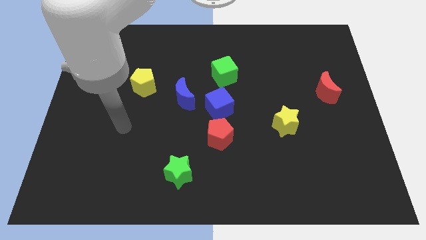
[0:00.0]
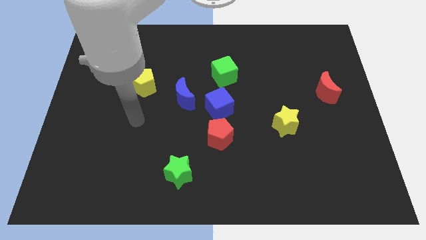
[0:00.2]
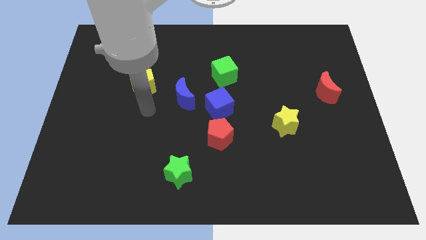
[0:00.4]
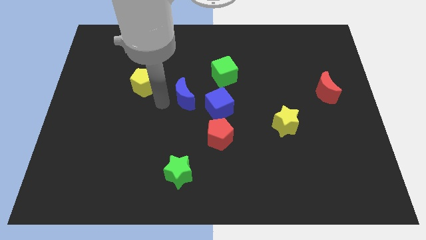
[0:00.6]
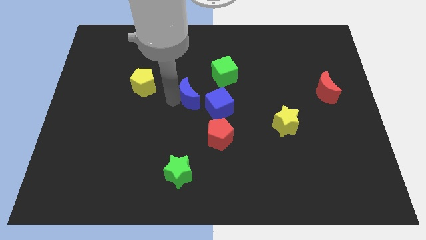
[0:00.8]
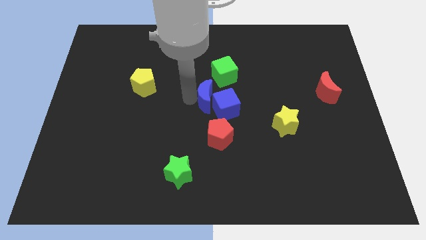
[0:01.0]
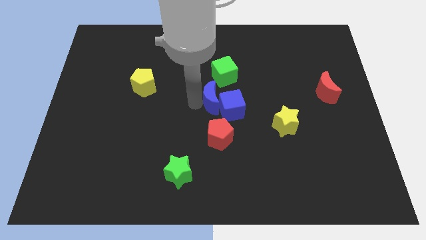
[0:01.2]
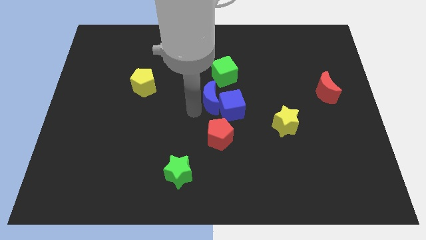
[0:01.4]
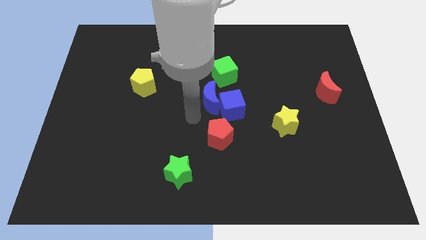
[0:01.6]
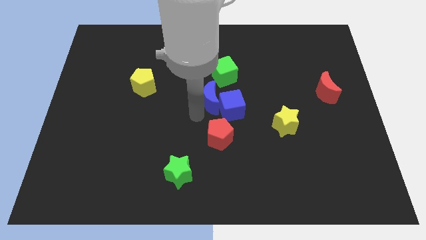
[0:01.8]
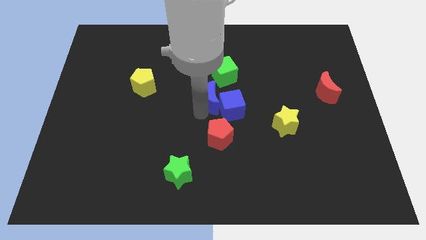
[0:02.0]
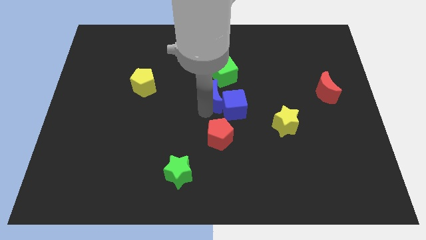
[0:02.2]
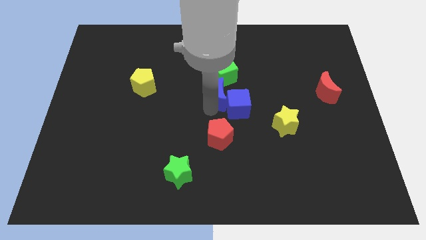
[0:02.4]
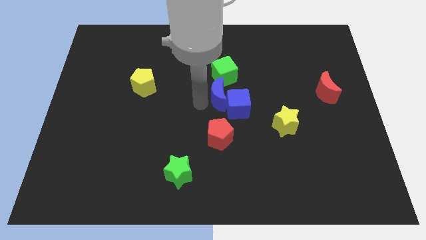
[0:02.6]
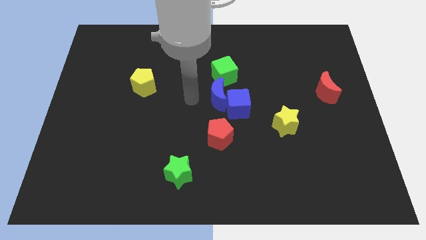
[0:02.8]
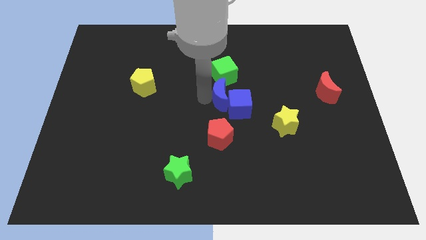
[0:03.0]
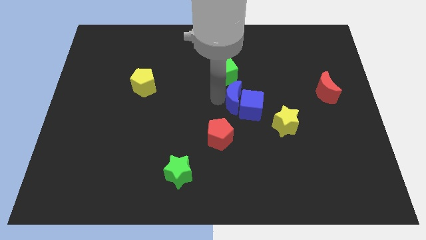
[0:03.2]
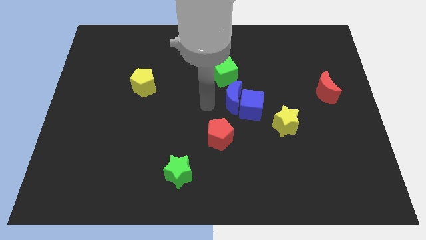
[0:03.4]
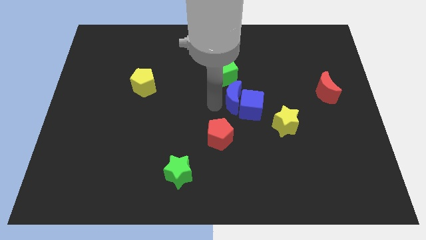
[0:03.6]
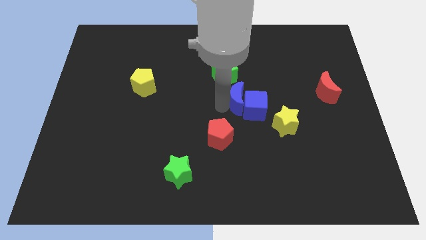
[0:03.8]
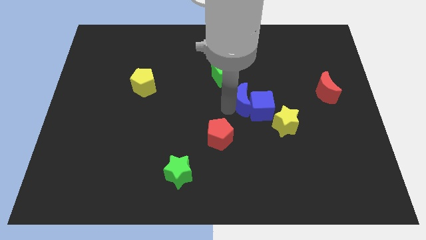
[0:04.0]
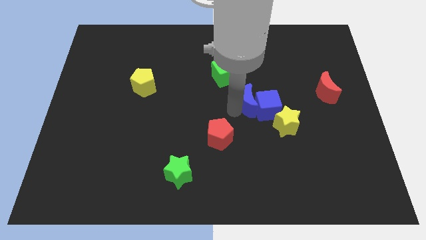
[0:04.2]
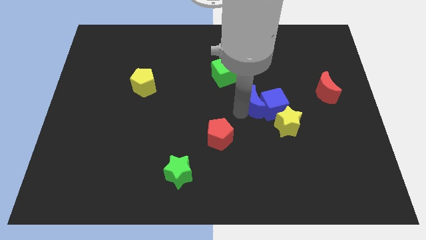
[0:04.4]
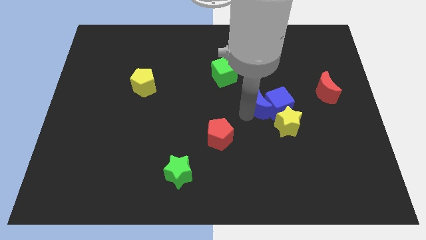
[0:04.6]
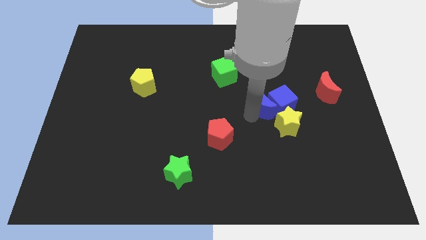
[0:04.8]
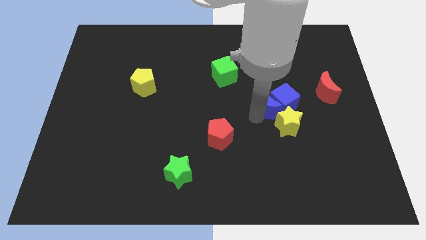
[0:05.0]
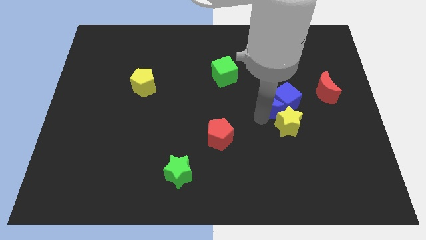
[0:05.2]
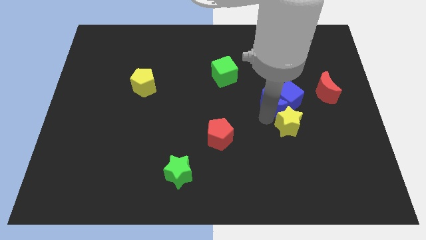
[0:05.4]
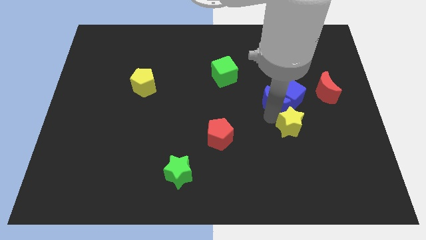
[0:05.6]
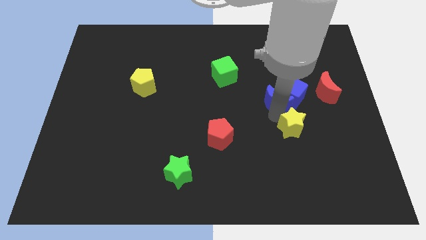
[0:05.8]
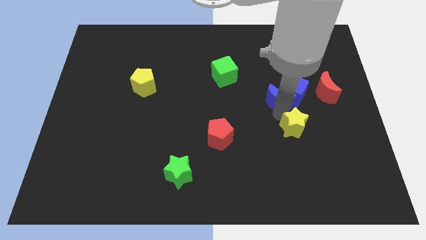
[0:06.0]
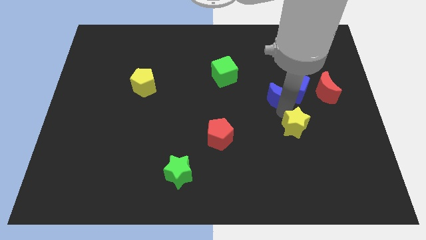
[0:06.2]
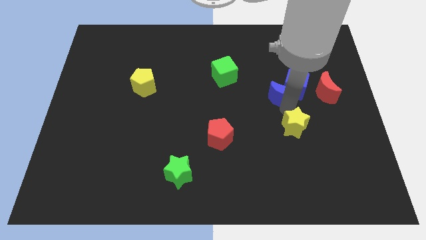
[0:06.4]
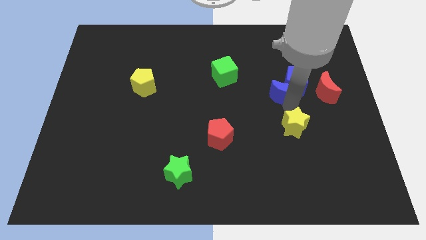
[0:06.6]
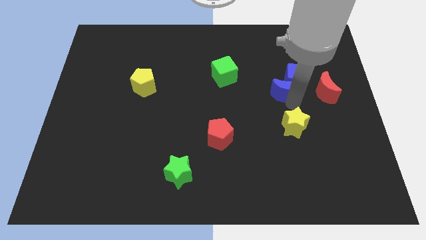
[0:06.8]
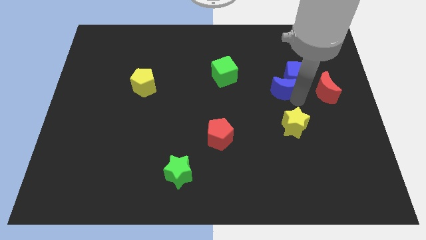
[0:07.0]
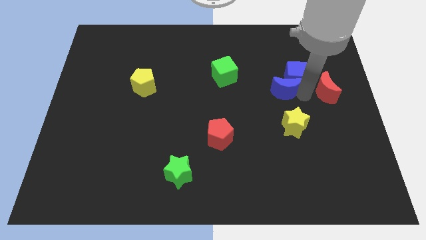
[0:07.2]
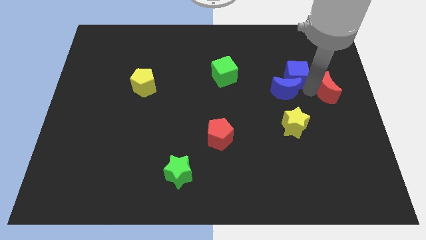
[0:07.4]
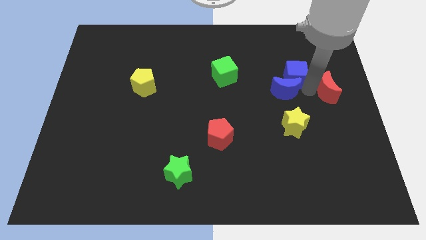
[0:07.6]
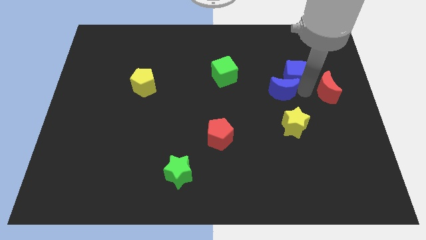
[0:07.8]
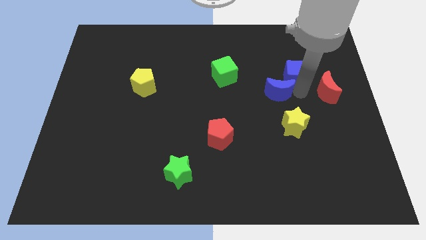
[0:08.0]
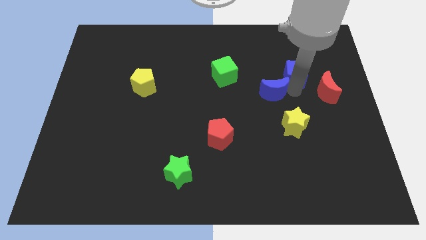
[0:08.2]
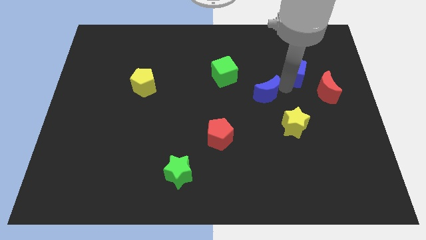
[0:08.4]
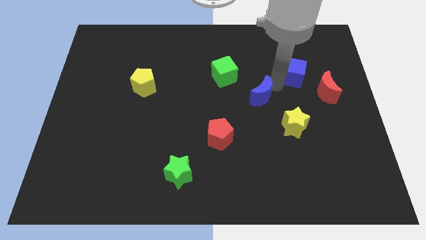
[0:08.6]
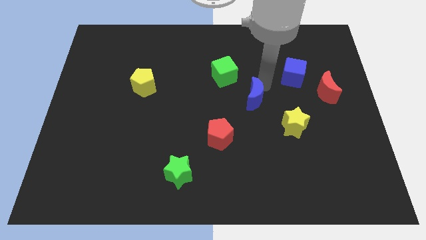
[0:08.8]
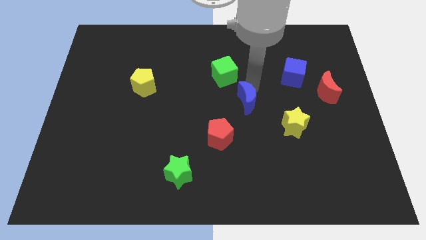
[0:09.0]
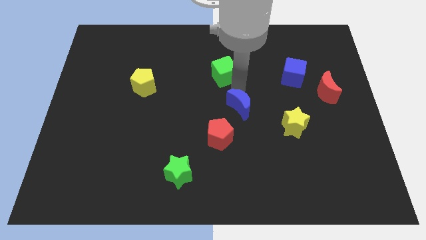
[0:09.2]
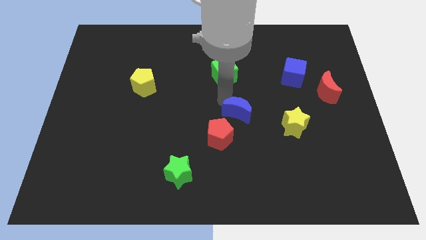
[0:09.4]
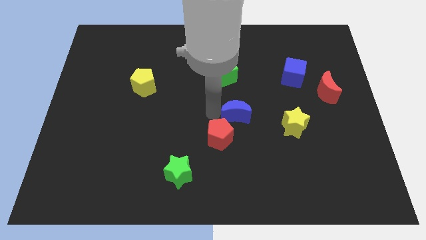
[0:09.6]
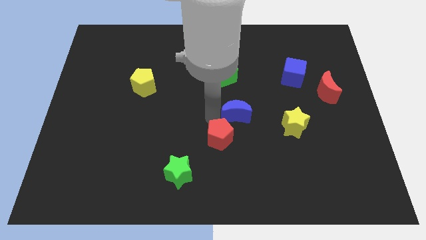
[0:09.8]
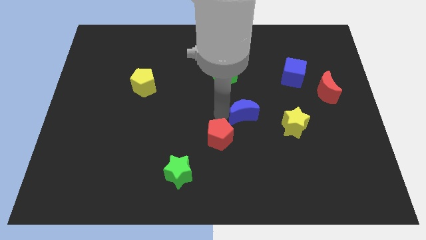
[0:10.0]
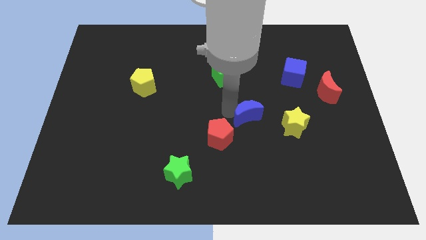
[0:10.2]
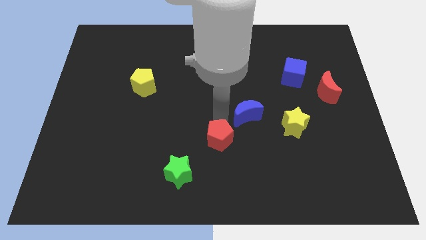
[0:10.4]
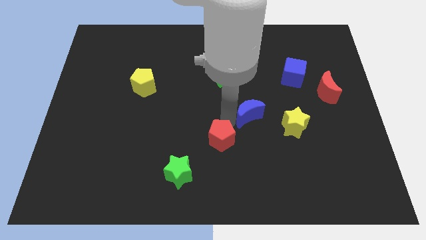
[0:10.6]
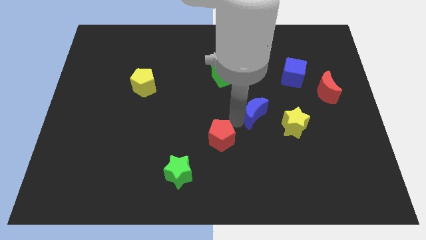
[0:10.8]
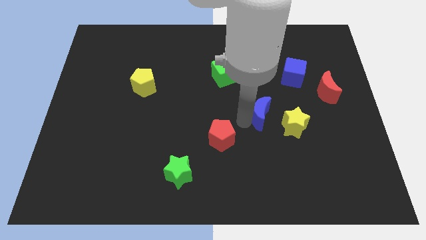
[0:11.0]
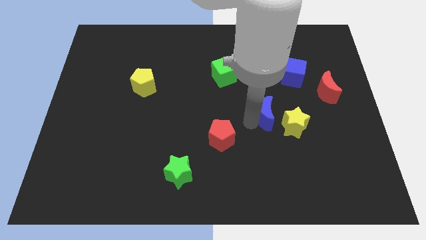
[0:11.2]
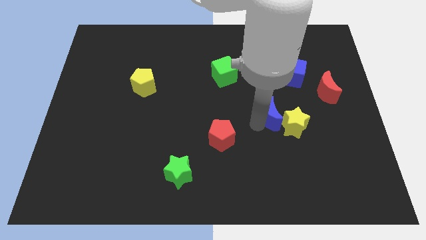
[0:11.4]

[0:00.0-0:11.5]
slide the blue moon to the yellow star

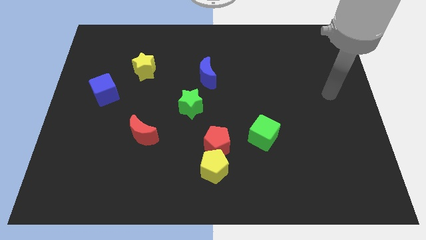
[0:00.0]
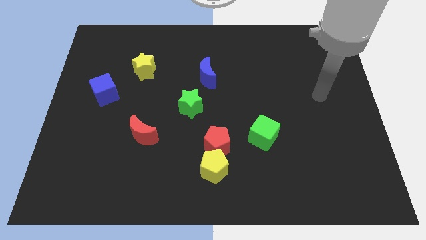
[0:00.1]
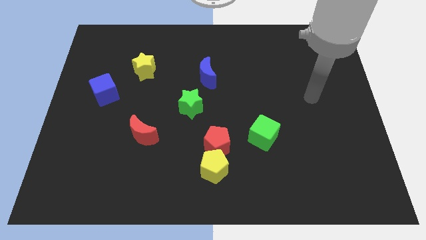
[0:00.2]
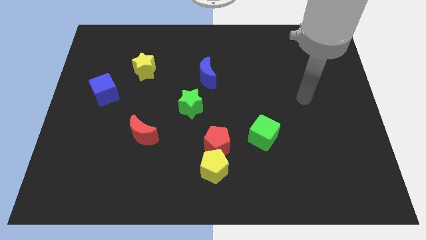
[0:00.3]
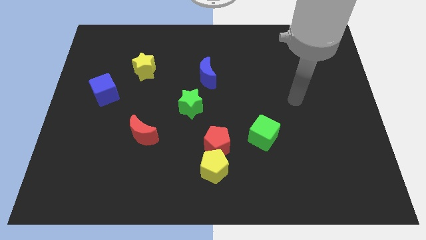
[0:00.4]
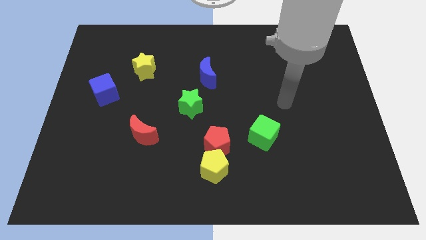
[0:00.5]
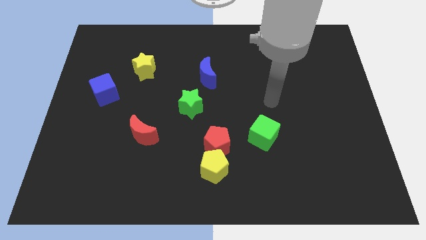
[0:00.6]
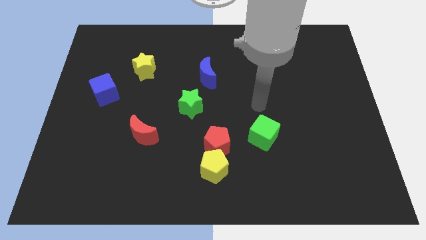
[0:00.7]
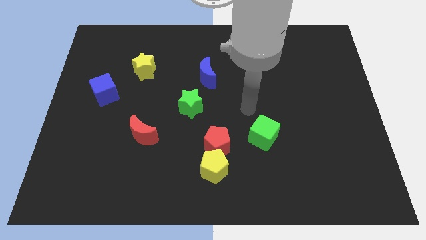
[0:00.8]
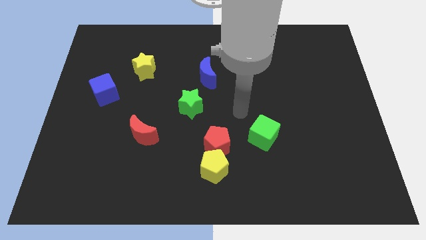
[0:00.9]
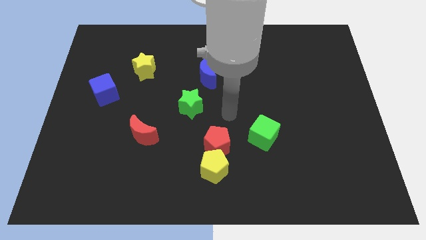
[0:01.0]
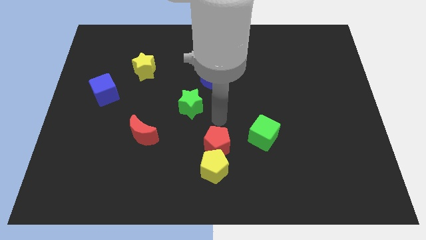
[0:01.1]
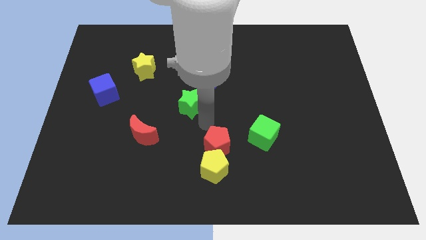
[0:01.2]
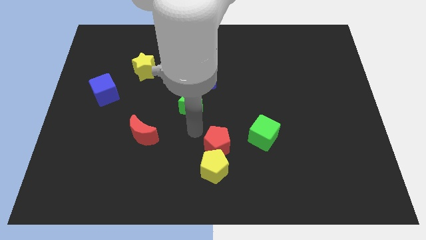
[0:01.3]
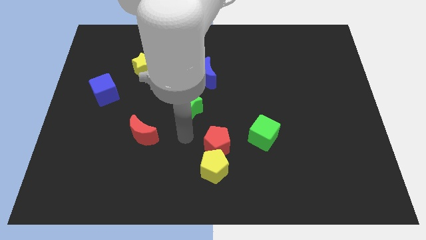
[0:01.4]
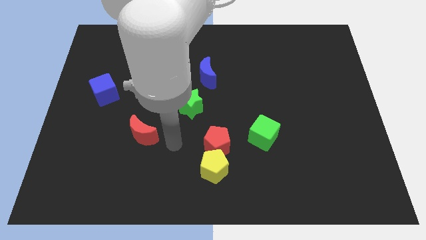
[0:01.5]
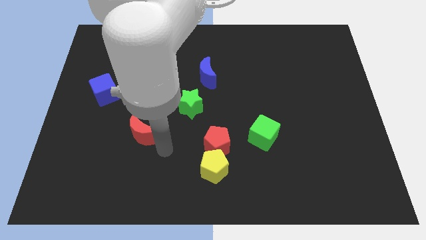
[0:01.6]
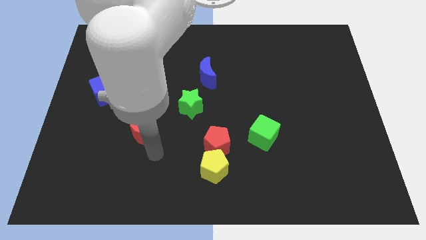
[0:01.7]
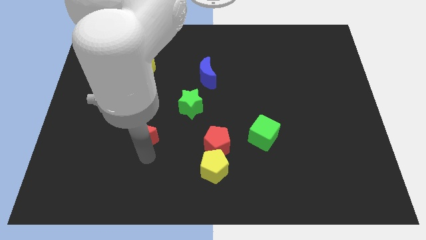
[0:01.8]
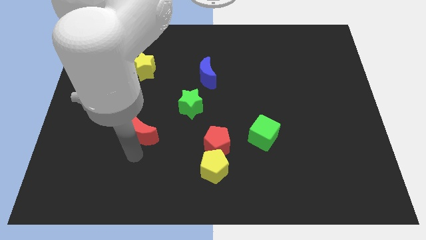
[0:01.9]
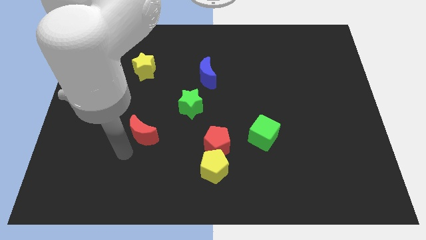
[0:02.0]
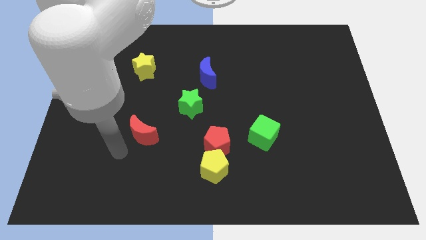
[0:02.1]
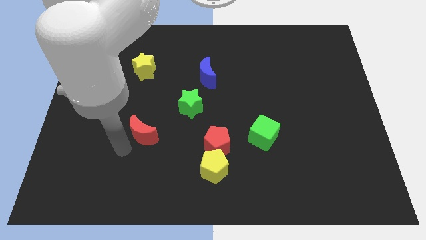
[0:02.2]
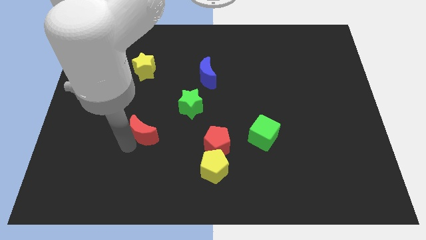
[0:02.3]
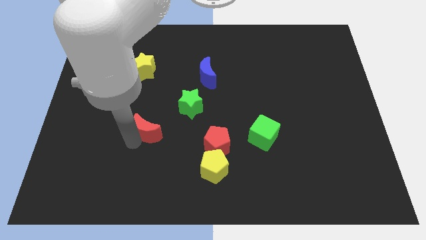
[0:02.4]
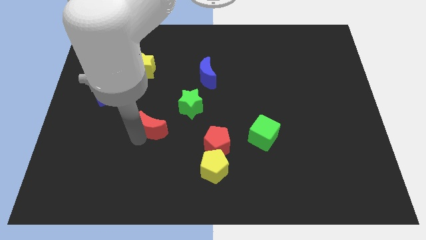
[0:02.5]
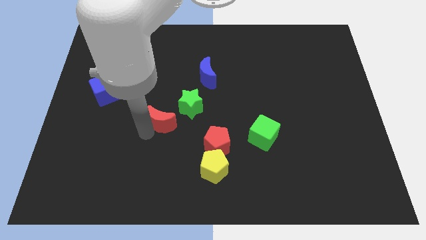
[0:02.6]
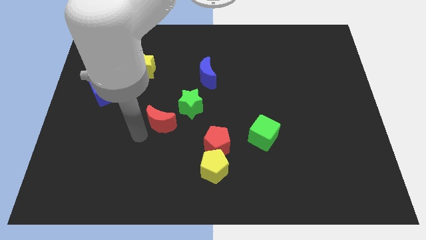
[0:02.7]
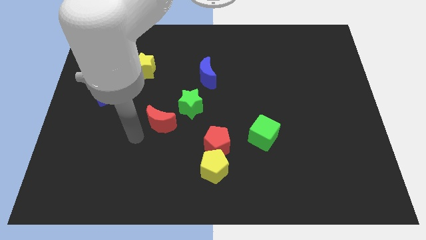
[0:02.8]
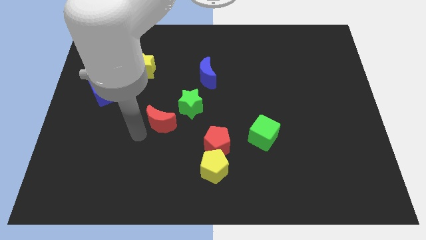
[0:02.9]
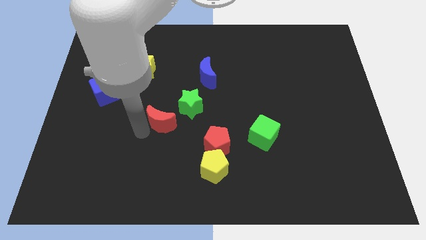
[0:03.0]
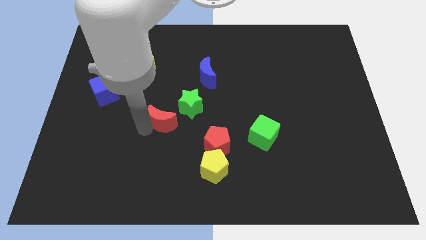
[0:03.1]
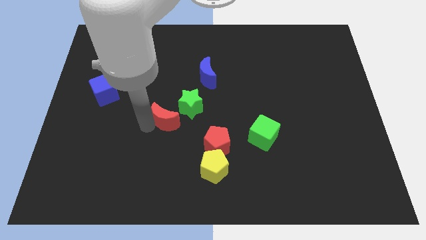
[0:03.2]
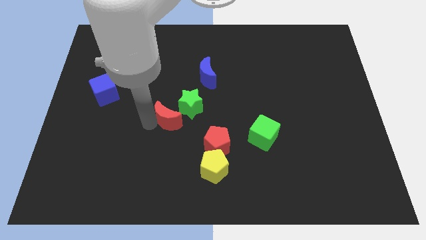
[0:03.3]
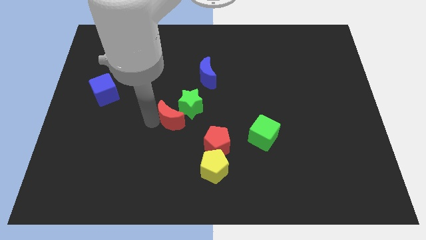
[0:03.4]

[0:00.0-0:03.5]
push the red moon to the green star
